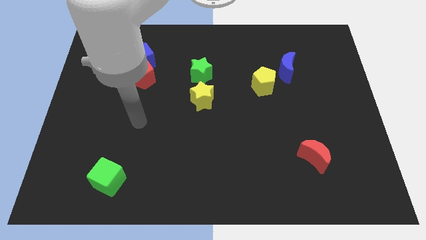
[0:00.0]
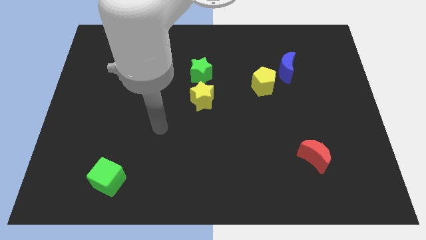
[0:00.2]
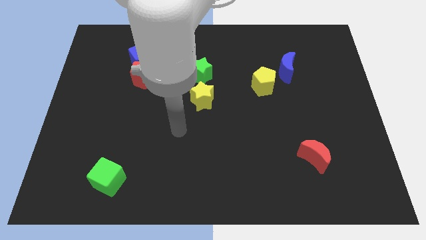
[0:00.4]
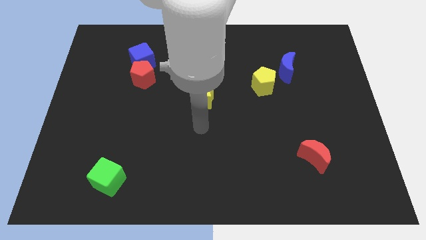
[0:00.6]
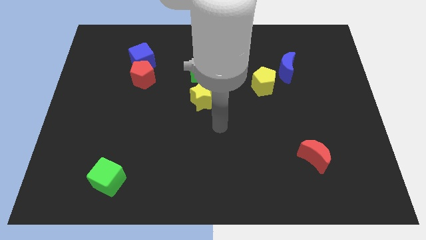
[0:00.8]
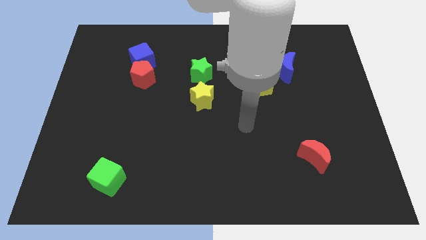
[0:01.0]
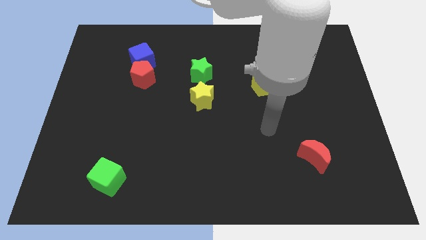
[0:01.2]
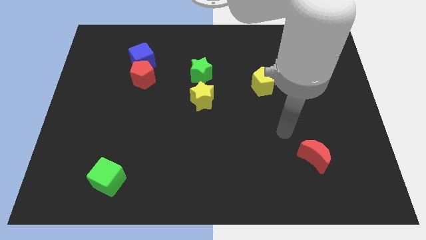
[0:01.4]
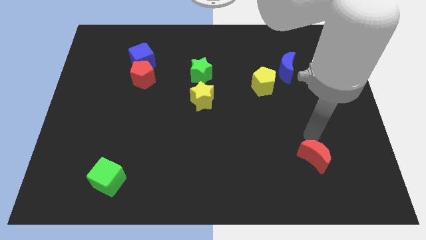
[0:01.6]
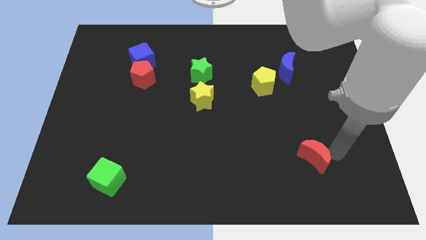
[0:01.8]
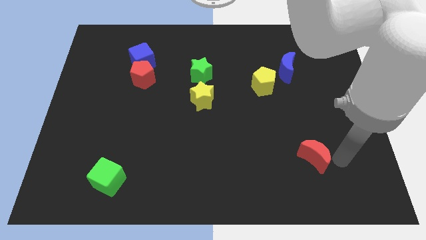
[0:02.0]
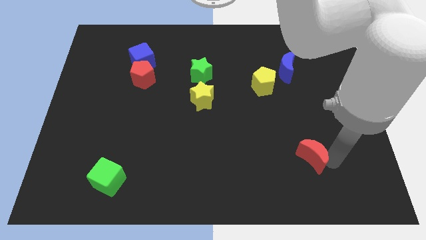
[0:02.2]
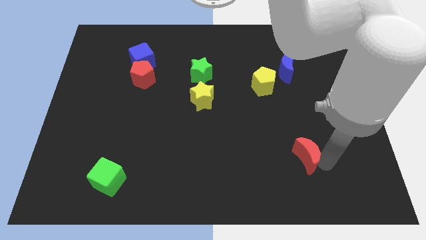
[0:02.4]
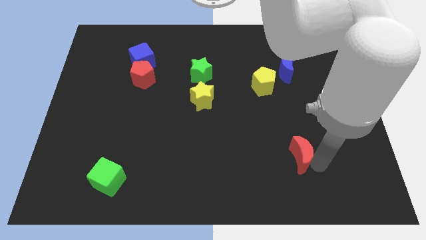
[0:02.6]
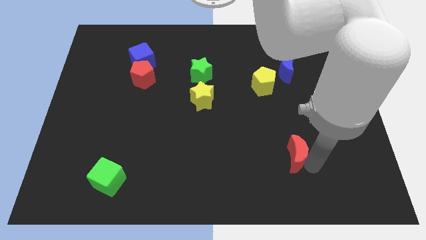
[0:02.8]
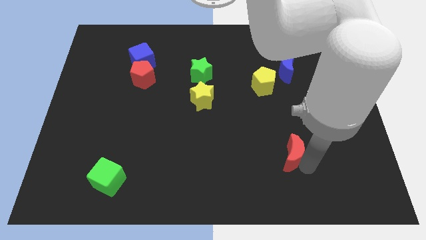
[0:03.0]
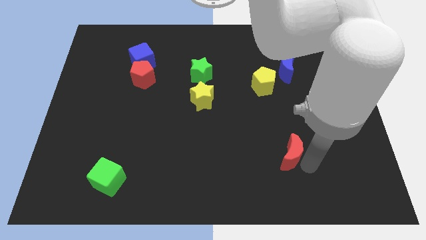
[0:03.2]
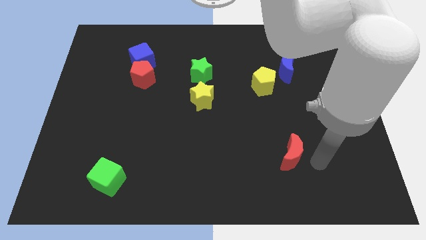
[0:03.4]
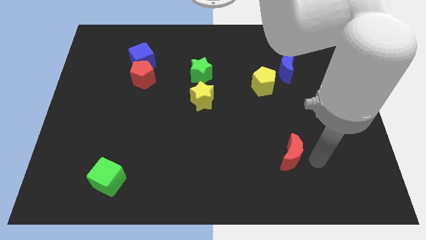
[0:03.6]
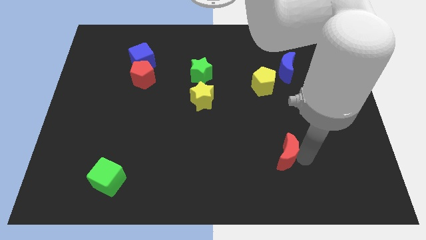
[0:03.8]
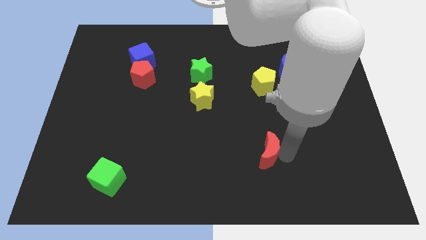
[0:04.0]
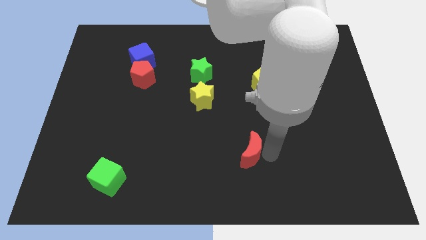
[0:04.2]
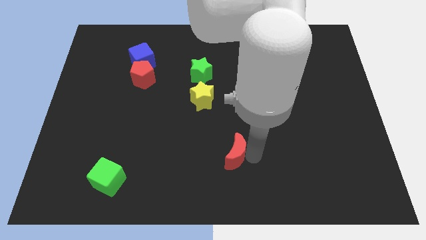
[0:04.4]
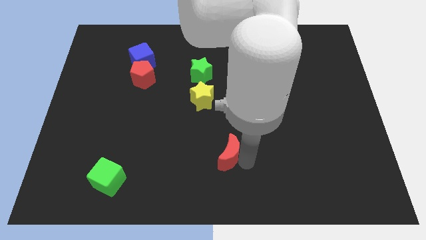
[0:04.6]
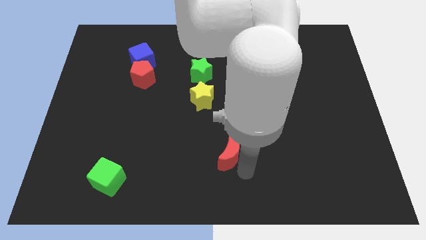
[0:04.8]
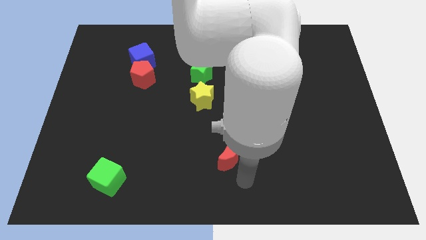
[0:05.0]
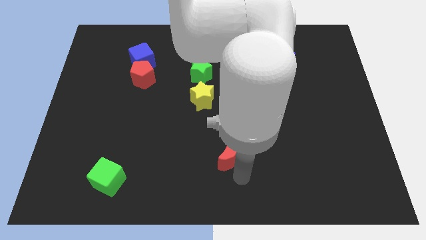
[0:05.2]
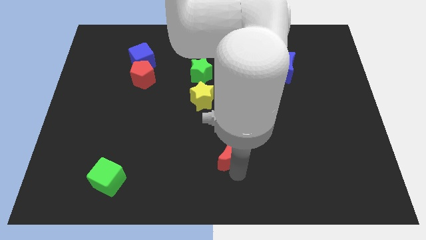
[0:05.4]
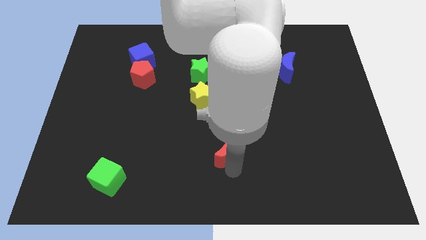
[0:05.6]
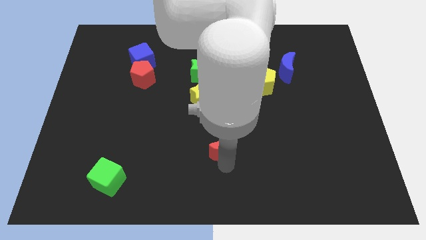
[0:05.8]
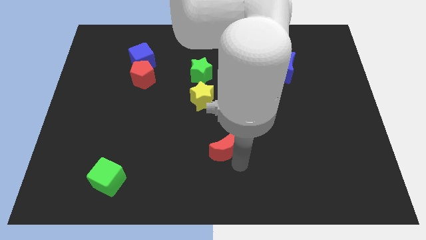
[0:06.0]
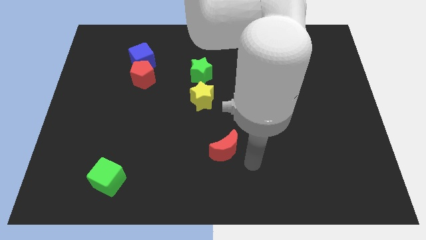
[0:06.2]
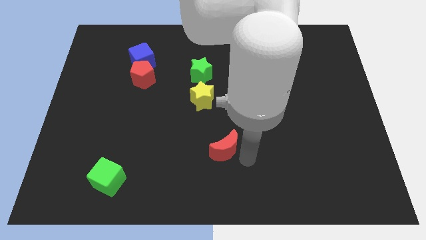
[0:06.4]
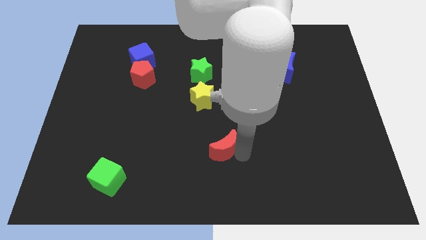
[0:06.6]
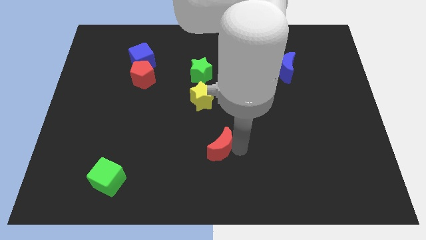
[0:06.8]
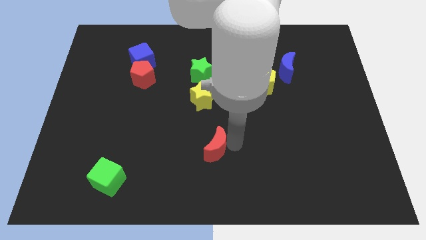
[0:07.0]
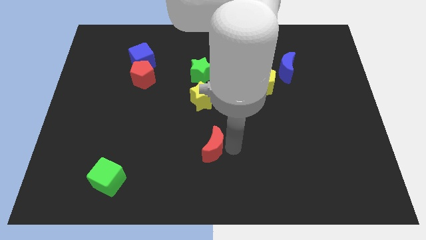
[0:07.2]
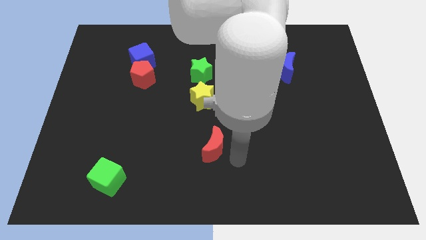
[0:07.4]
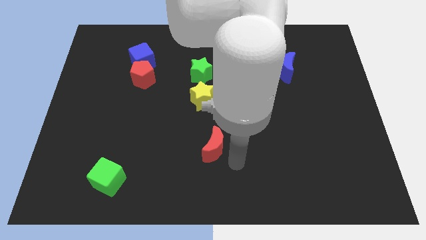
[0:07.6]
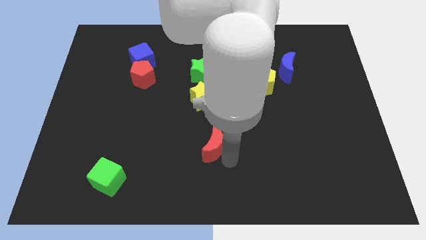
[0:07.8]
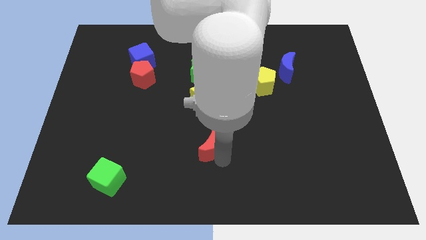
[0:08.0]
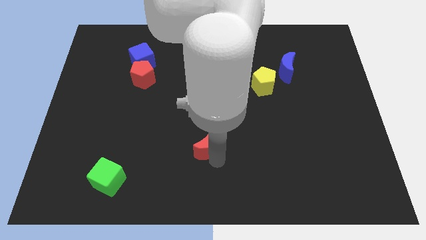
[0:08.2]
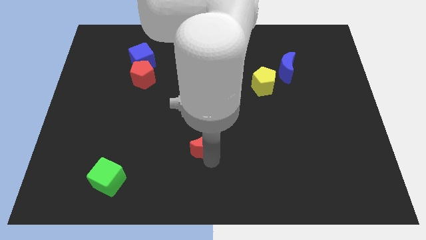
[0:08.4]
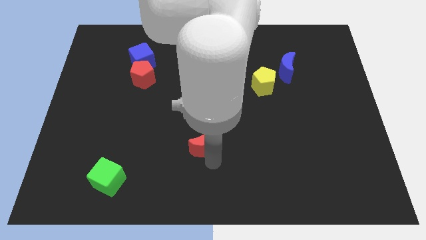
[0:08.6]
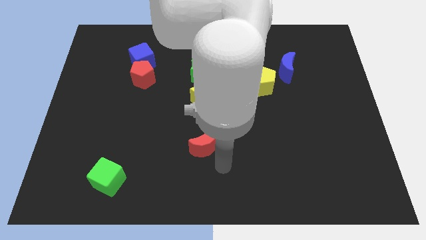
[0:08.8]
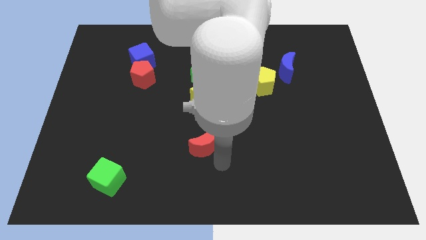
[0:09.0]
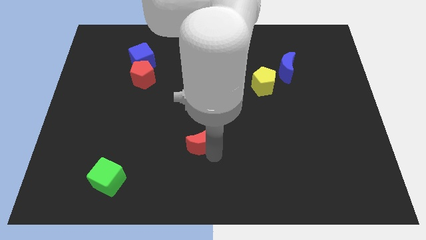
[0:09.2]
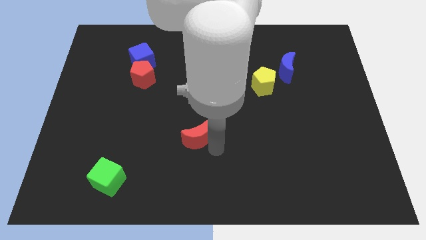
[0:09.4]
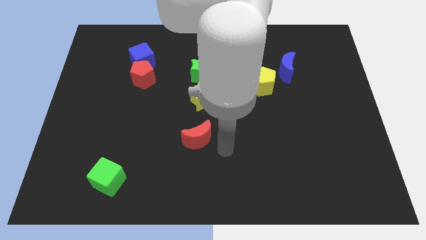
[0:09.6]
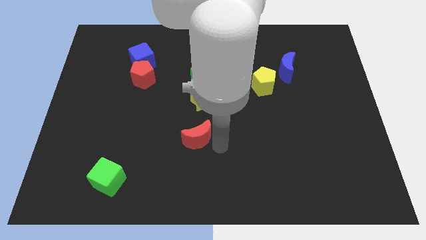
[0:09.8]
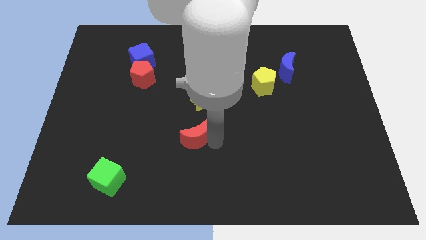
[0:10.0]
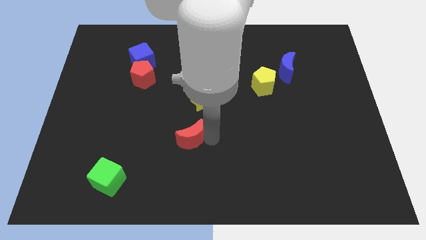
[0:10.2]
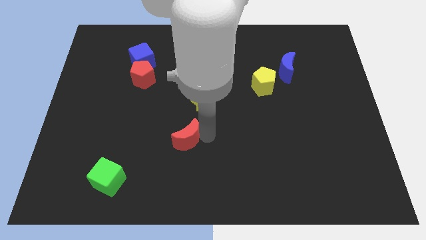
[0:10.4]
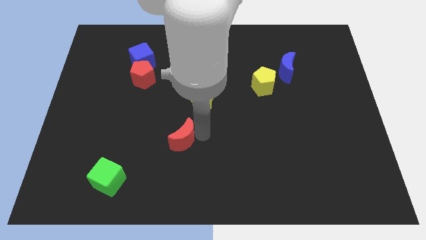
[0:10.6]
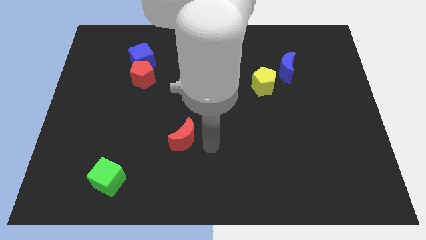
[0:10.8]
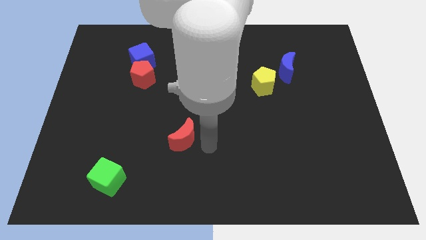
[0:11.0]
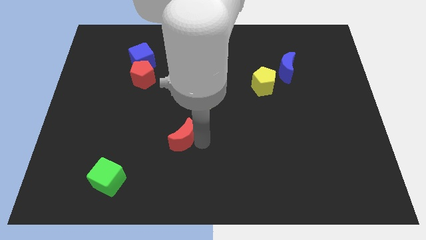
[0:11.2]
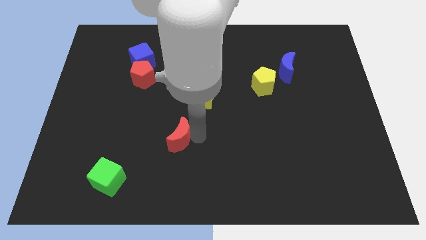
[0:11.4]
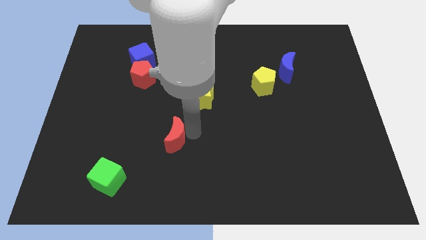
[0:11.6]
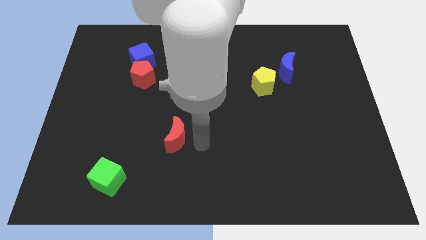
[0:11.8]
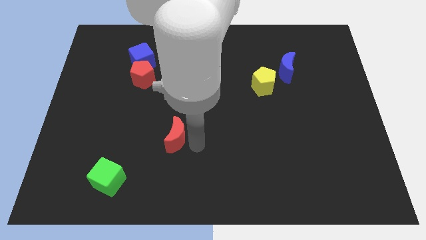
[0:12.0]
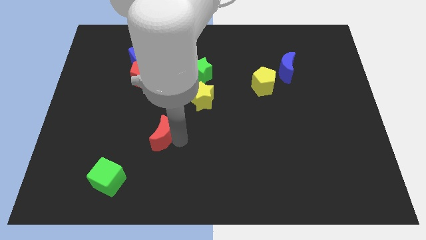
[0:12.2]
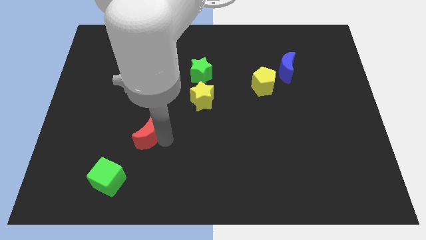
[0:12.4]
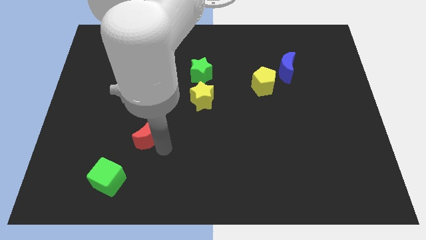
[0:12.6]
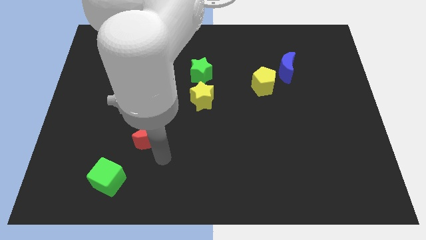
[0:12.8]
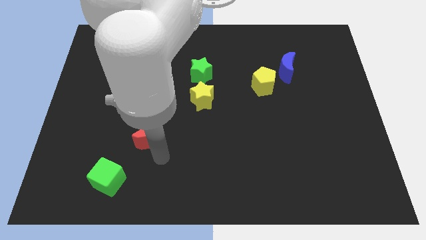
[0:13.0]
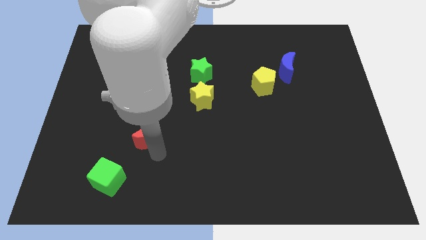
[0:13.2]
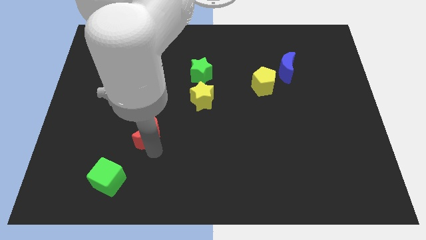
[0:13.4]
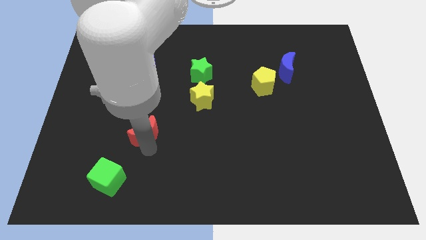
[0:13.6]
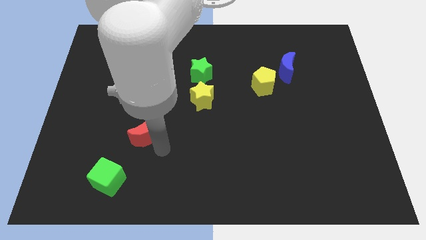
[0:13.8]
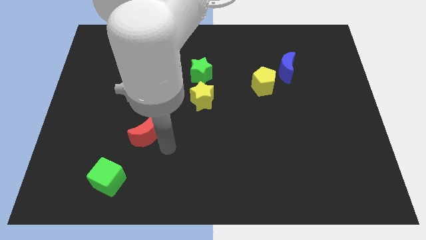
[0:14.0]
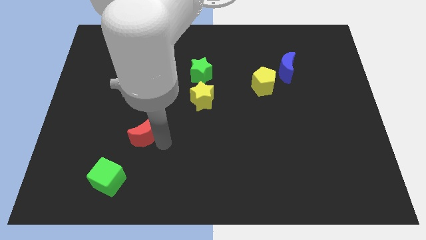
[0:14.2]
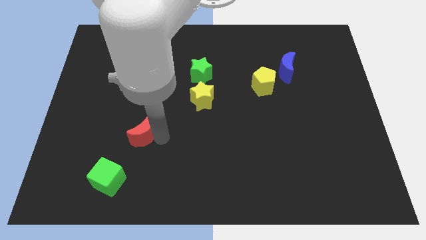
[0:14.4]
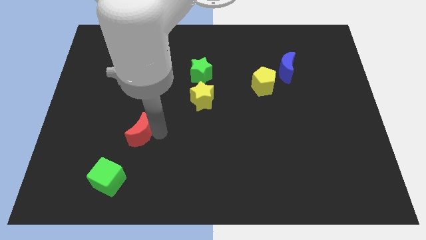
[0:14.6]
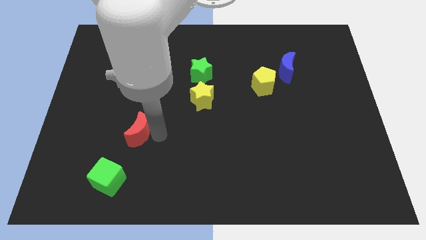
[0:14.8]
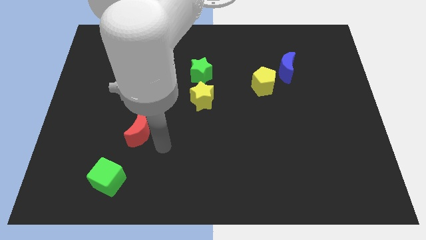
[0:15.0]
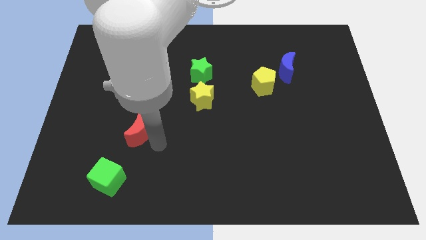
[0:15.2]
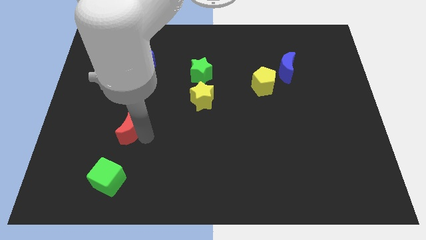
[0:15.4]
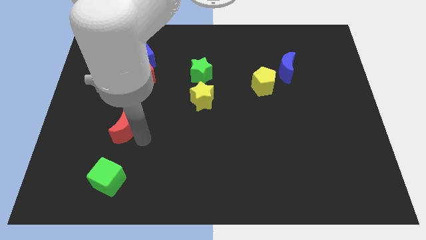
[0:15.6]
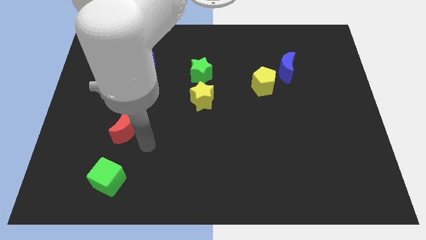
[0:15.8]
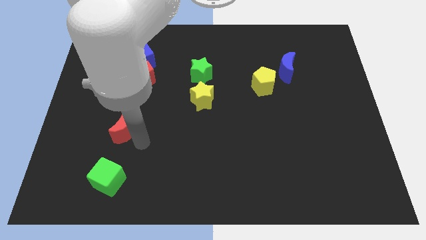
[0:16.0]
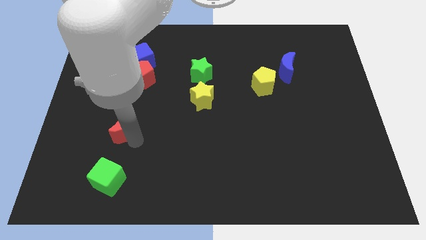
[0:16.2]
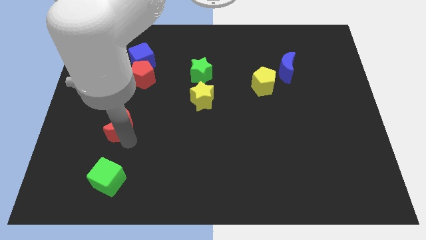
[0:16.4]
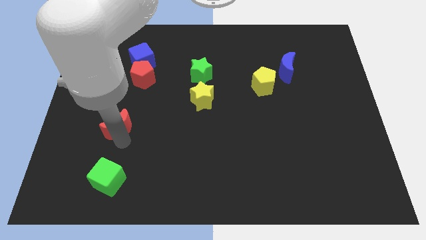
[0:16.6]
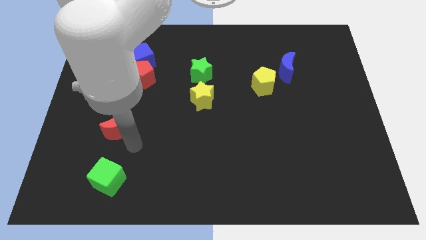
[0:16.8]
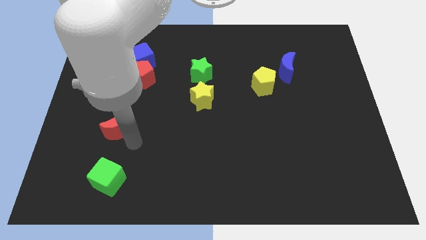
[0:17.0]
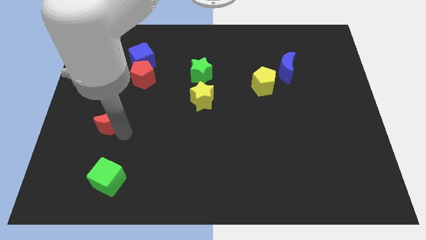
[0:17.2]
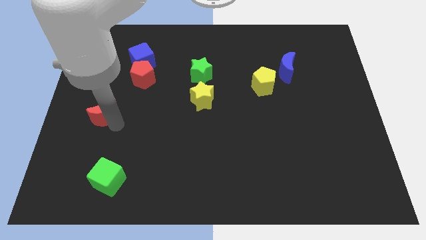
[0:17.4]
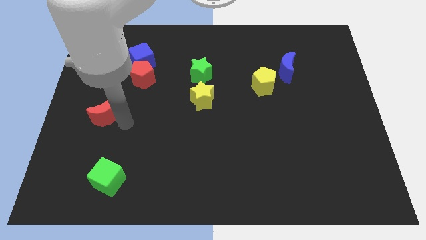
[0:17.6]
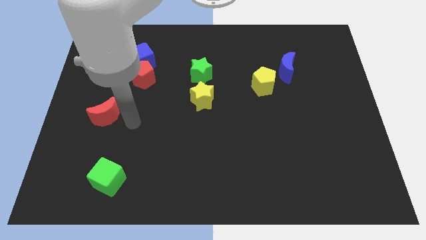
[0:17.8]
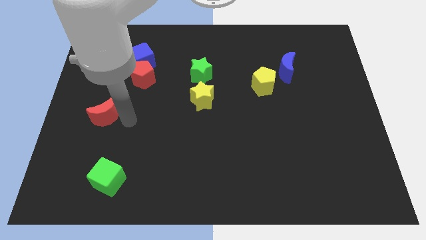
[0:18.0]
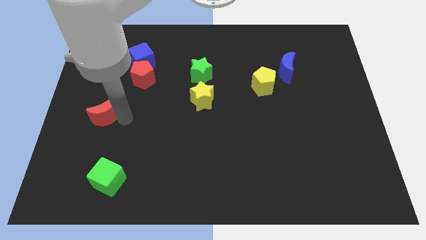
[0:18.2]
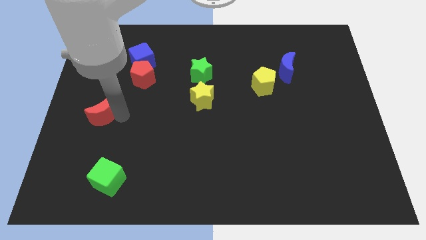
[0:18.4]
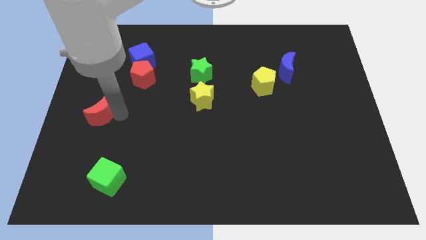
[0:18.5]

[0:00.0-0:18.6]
slide the red moon to the left side of the board
